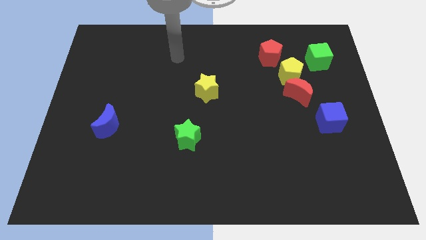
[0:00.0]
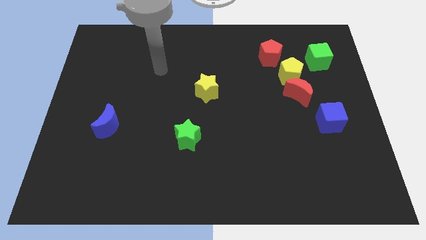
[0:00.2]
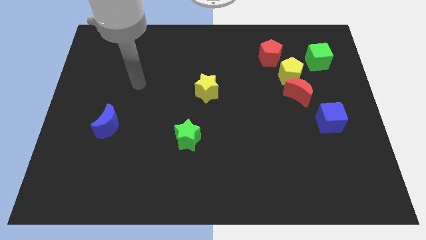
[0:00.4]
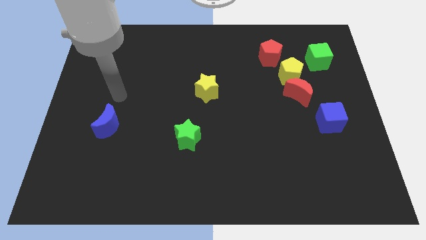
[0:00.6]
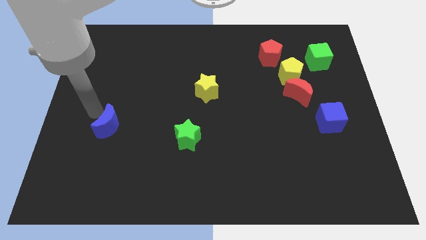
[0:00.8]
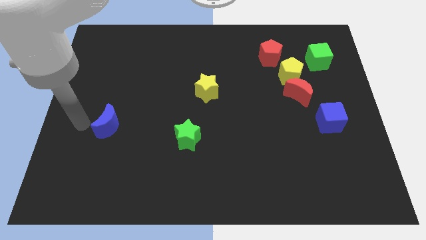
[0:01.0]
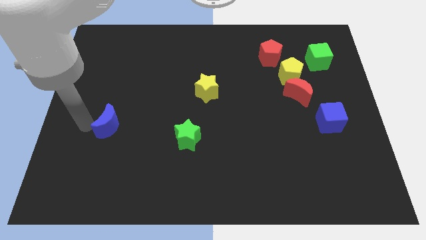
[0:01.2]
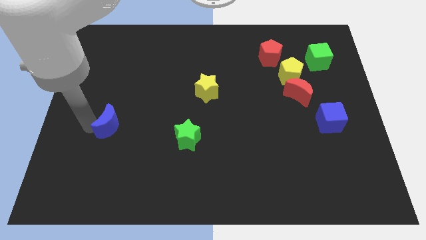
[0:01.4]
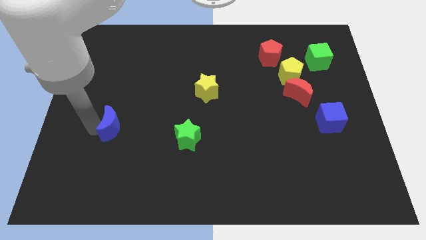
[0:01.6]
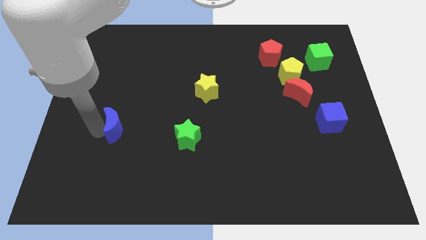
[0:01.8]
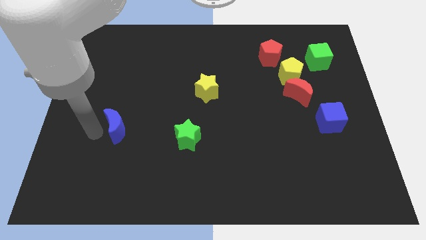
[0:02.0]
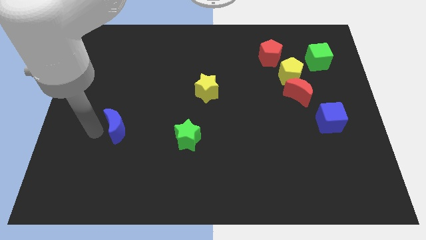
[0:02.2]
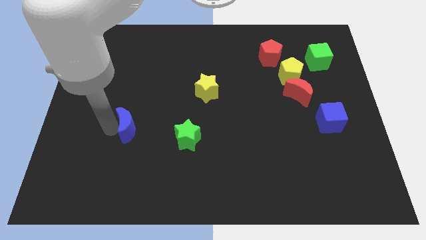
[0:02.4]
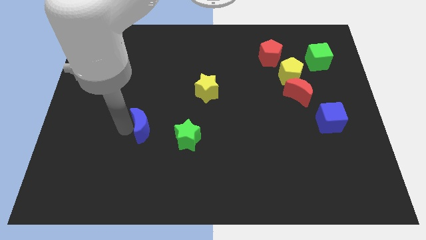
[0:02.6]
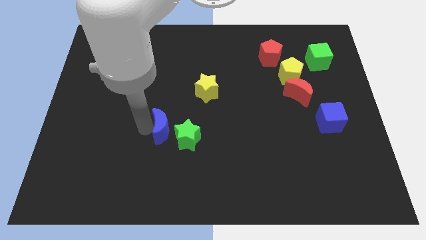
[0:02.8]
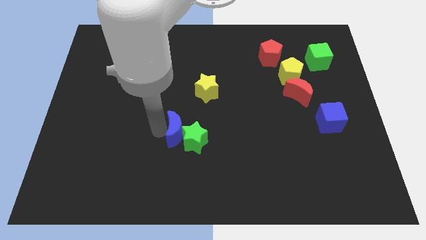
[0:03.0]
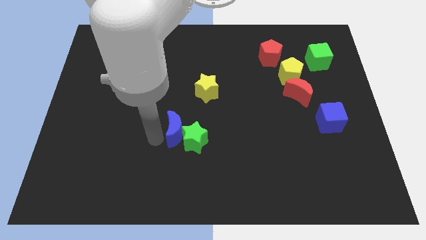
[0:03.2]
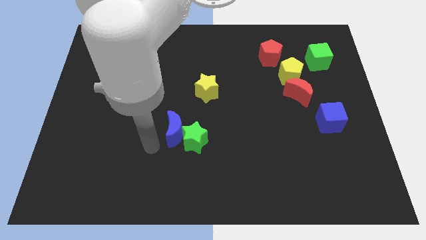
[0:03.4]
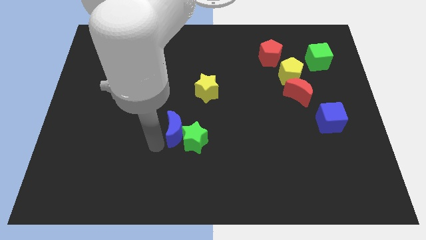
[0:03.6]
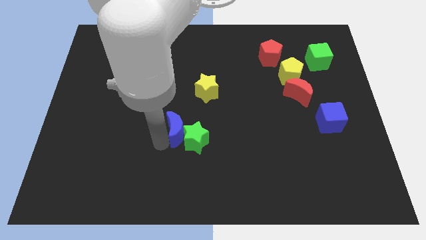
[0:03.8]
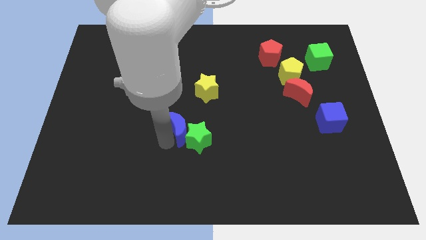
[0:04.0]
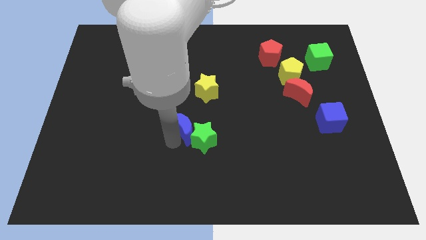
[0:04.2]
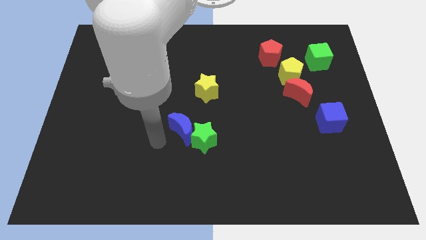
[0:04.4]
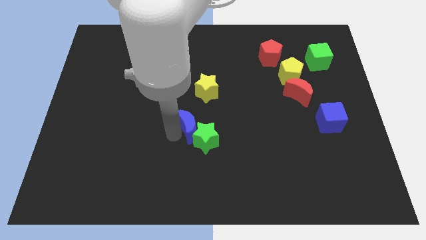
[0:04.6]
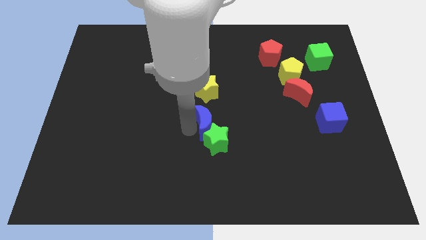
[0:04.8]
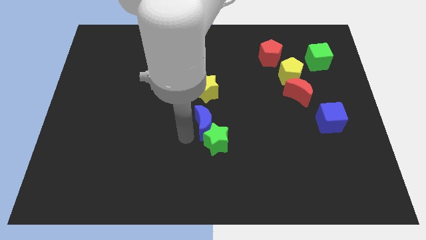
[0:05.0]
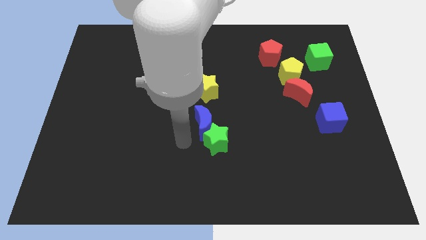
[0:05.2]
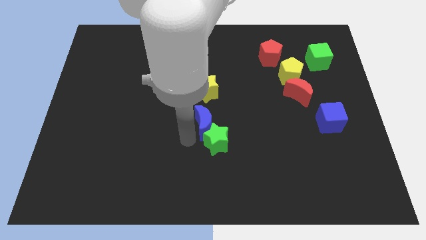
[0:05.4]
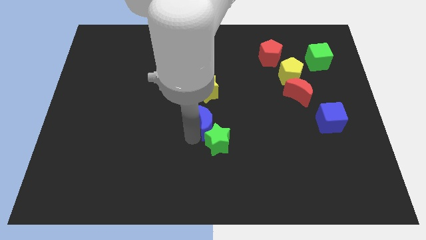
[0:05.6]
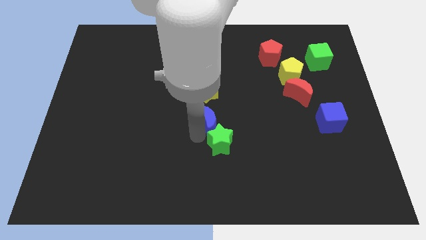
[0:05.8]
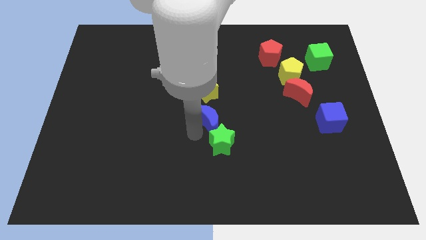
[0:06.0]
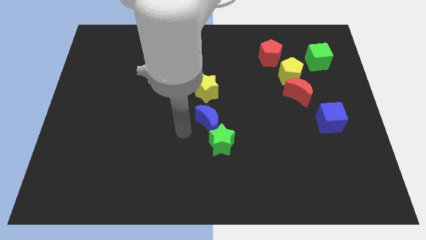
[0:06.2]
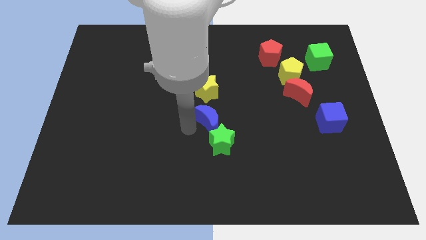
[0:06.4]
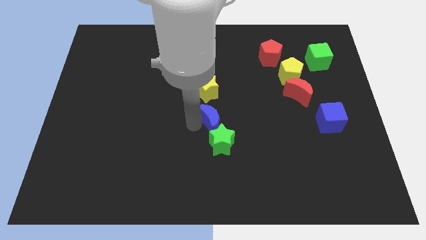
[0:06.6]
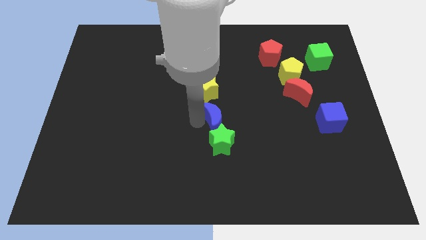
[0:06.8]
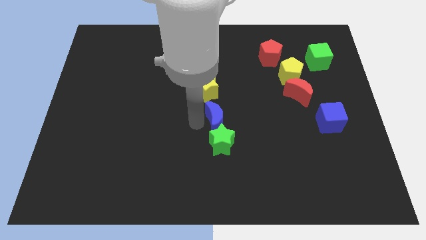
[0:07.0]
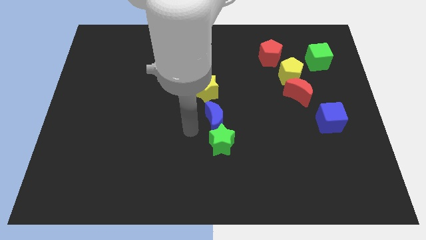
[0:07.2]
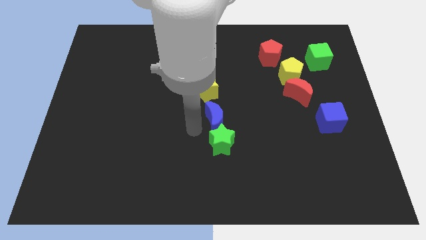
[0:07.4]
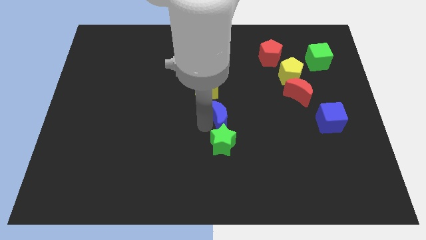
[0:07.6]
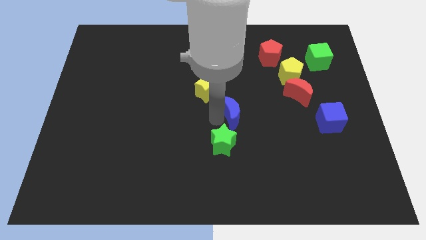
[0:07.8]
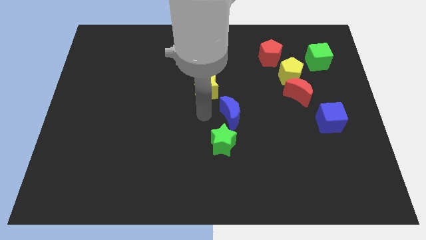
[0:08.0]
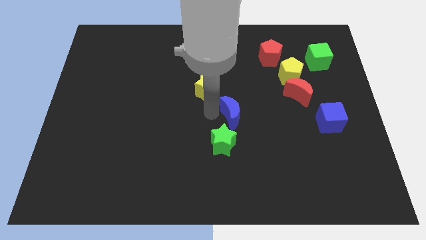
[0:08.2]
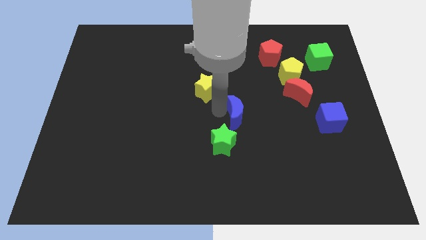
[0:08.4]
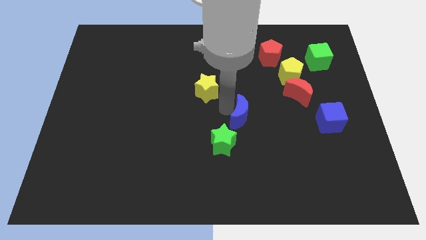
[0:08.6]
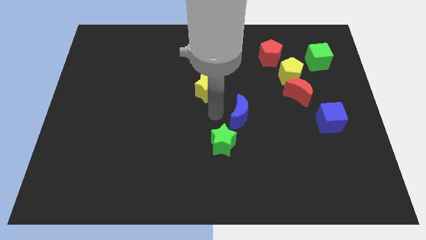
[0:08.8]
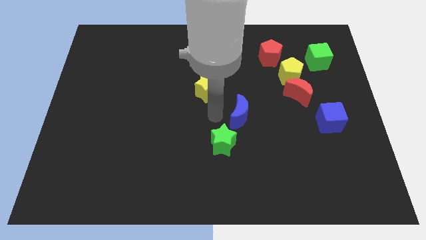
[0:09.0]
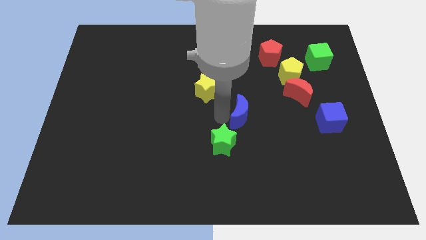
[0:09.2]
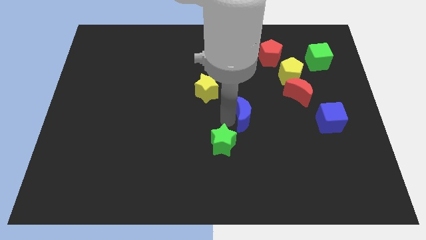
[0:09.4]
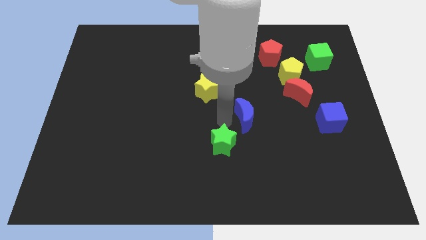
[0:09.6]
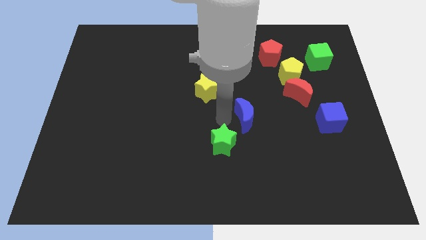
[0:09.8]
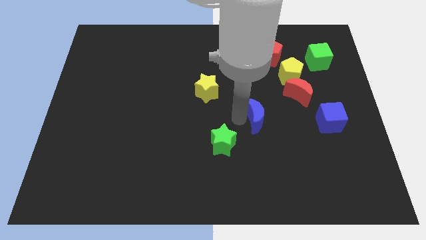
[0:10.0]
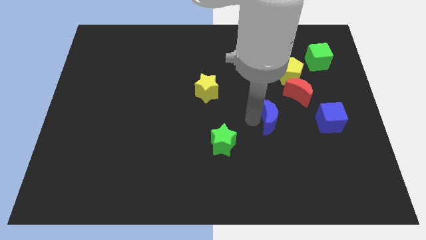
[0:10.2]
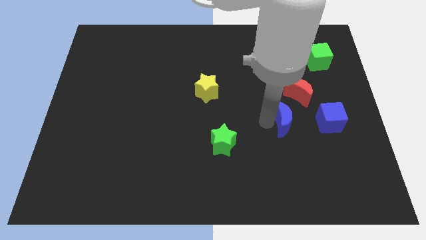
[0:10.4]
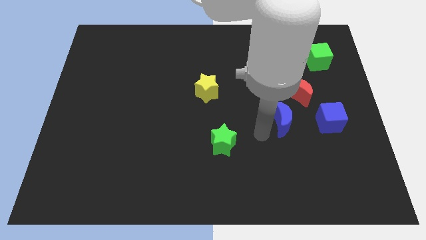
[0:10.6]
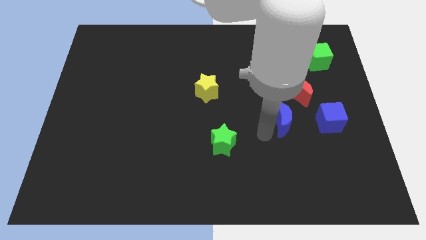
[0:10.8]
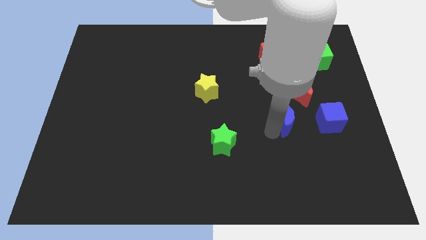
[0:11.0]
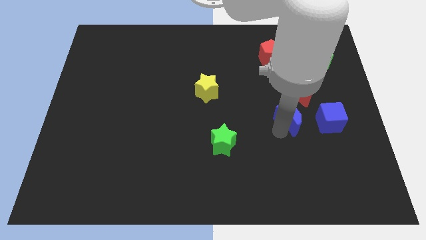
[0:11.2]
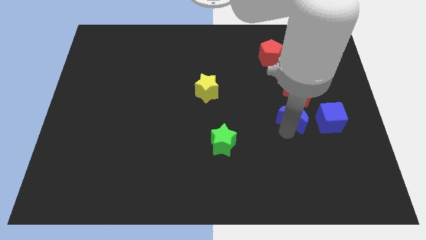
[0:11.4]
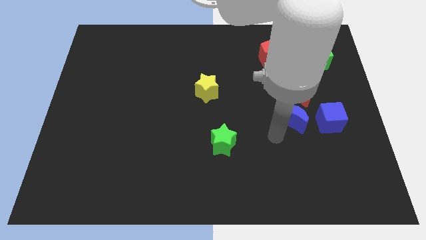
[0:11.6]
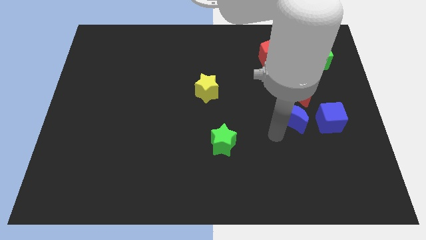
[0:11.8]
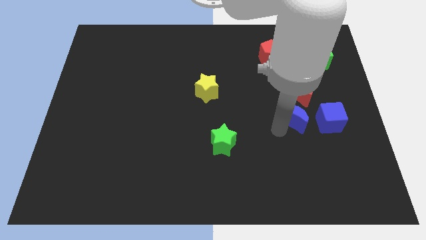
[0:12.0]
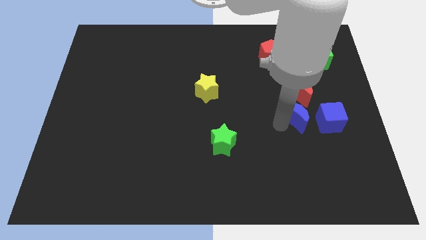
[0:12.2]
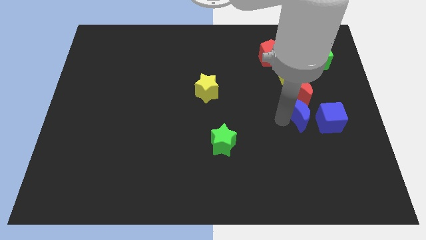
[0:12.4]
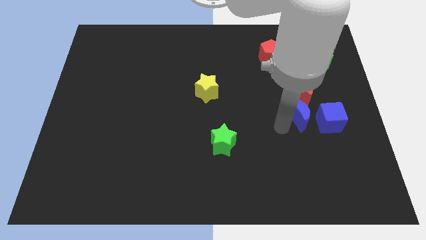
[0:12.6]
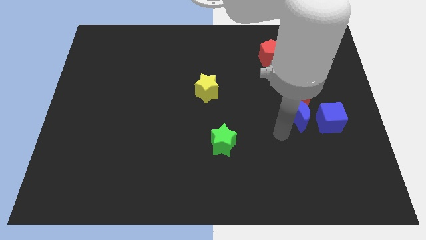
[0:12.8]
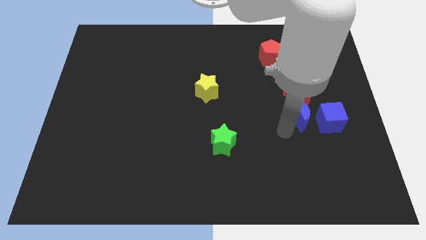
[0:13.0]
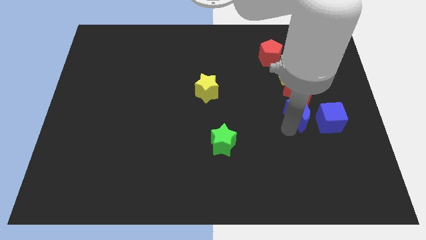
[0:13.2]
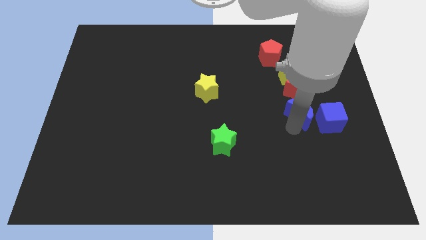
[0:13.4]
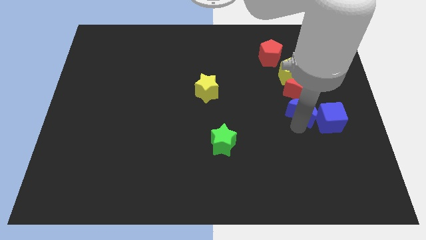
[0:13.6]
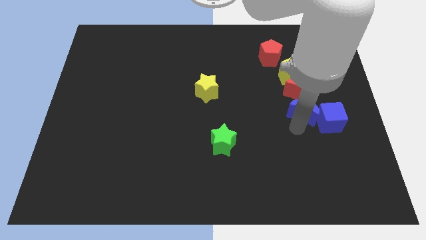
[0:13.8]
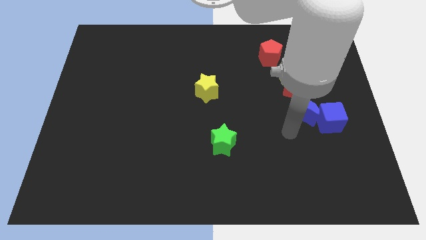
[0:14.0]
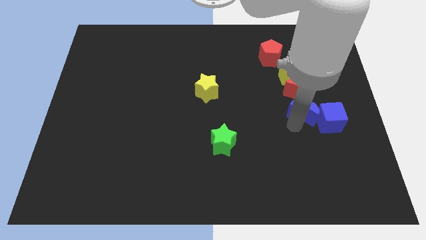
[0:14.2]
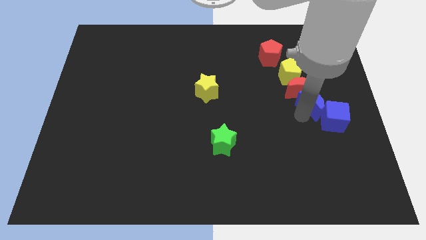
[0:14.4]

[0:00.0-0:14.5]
move the blue moon to the top of the blue cube
